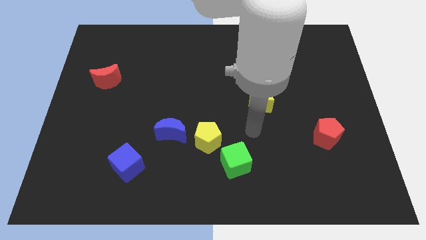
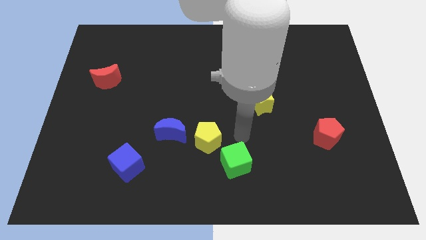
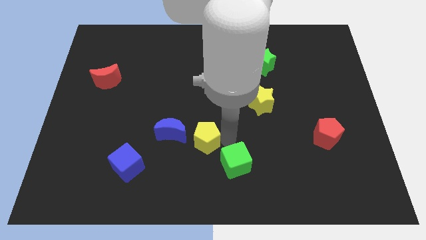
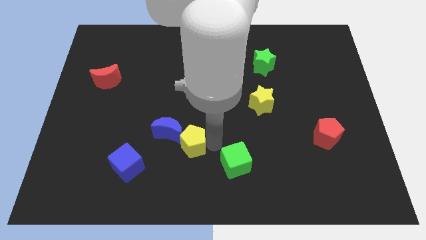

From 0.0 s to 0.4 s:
move the green cube away from the yellow pentagon

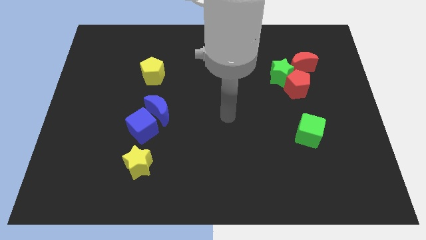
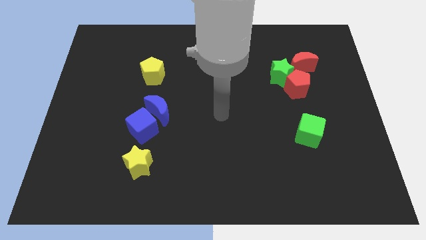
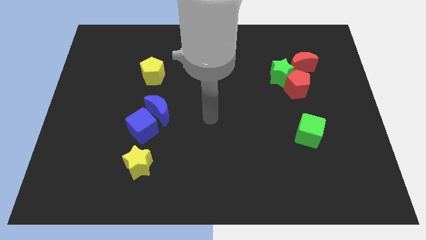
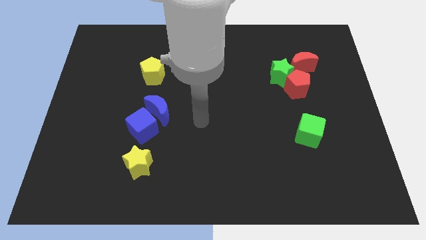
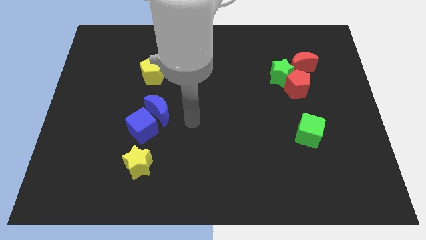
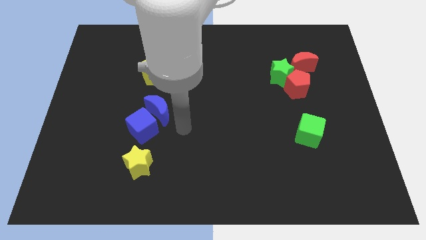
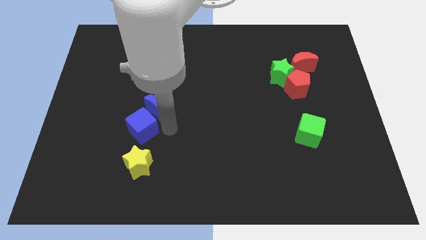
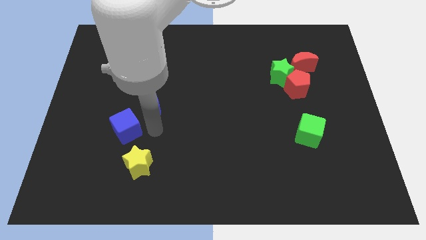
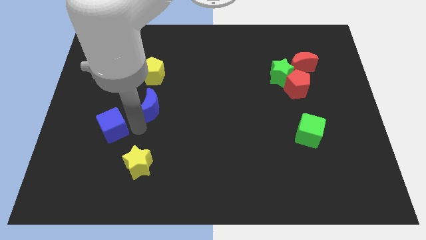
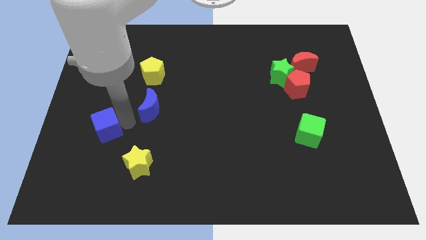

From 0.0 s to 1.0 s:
pull the blue moon apart from the blue cube

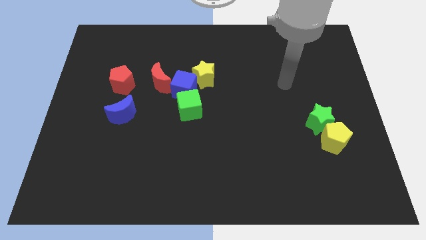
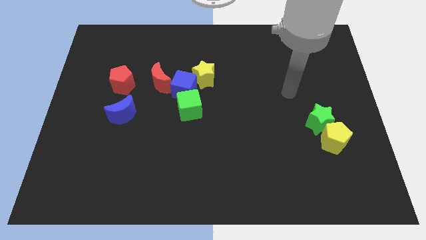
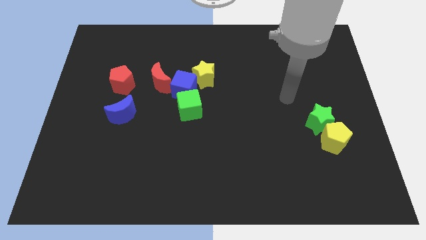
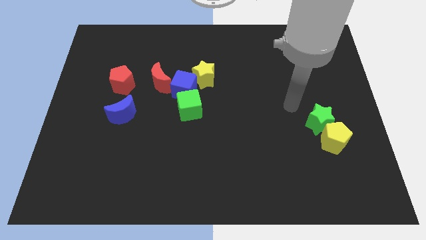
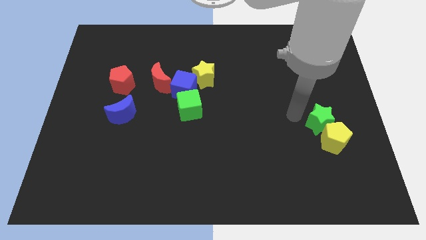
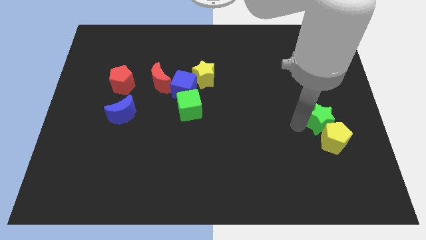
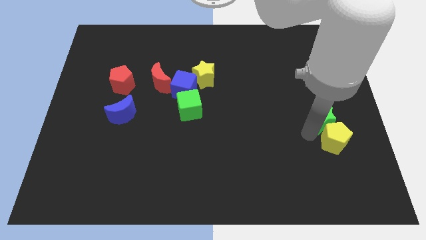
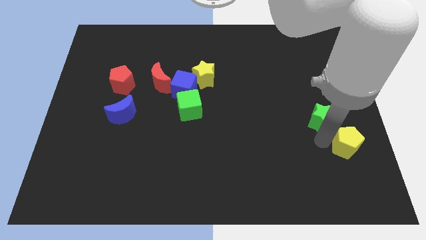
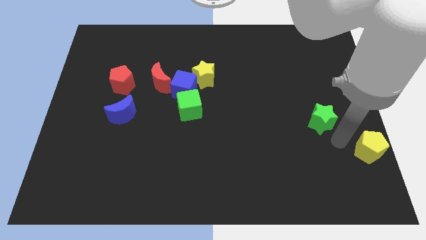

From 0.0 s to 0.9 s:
separate the green star from the yellow pentagon

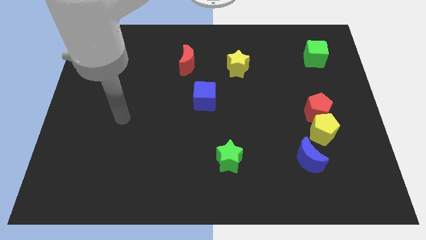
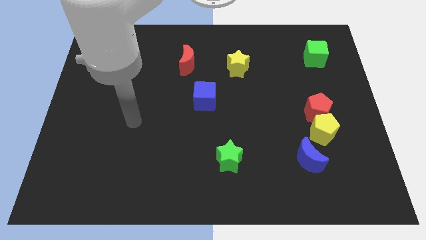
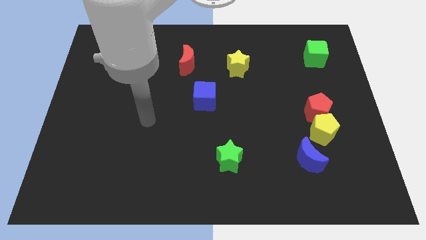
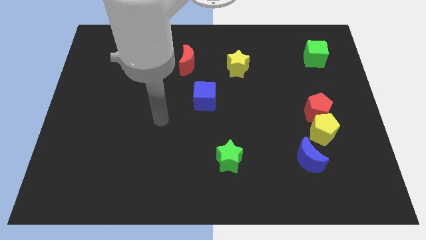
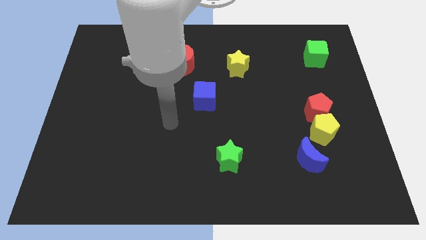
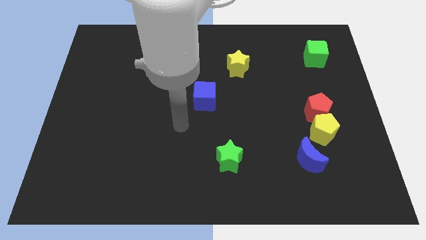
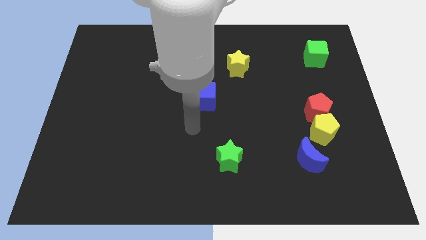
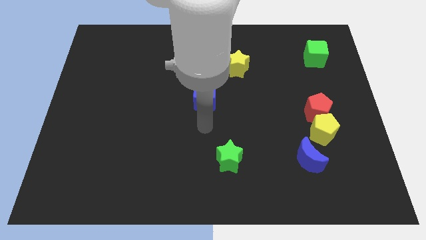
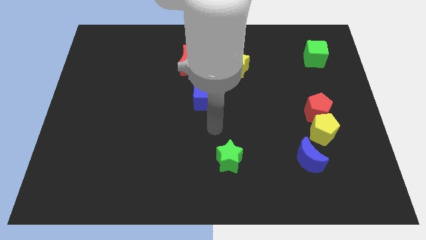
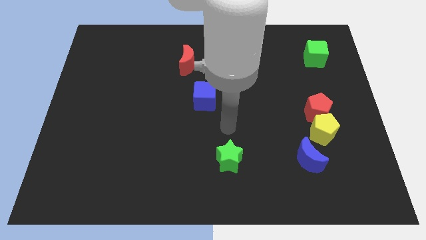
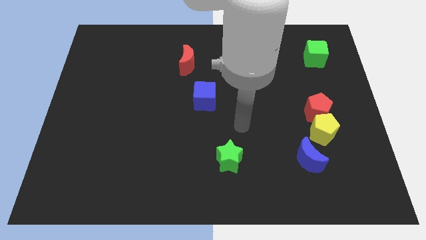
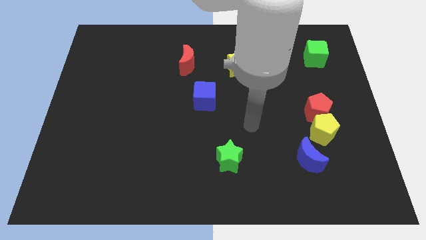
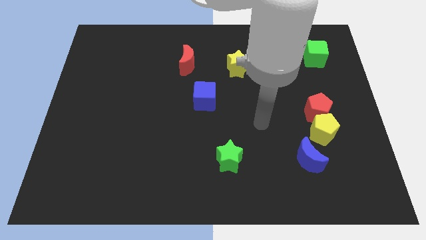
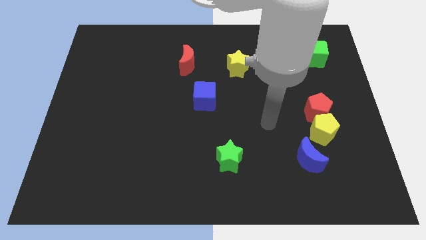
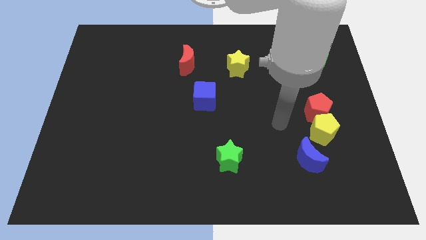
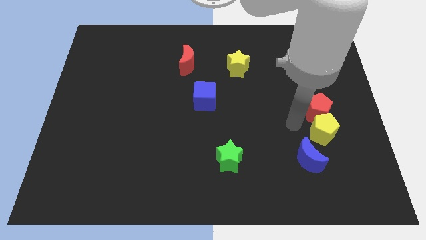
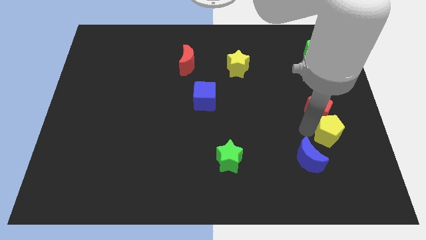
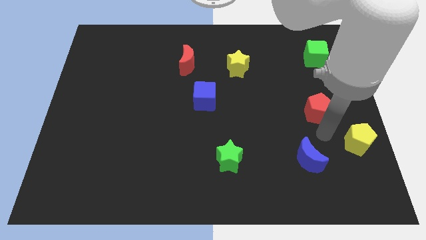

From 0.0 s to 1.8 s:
pull the red pentagon apart from the yellow pentagon

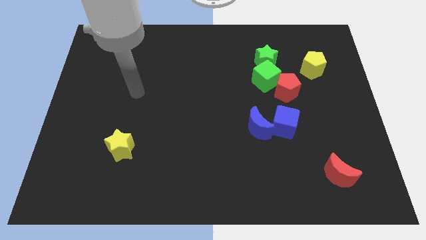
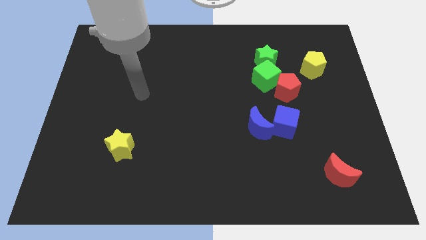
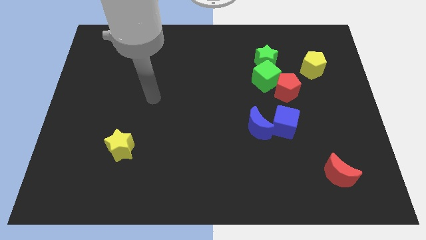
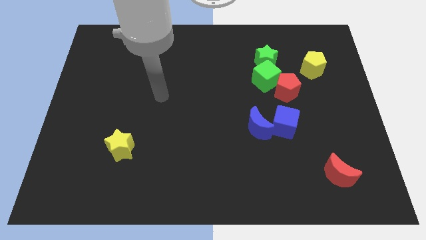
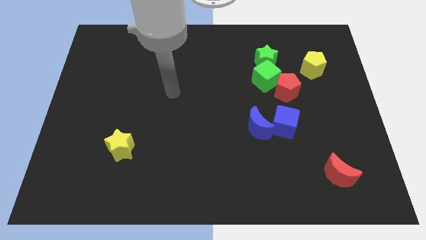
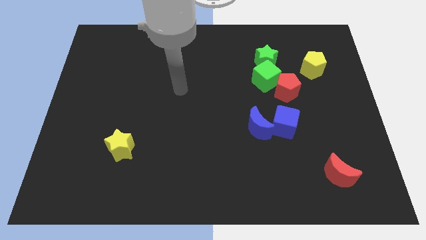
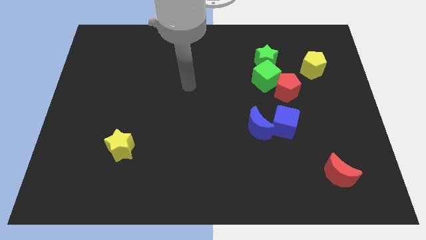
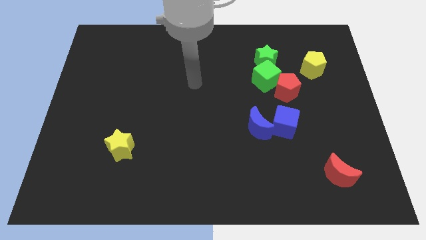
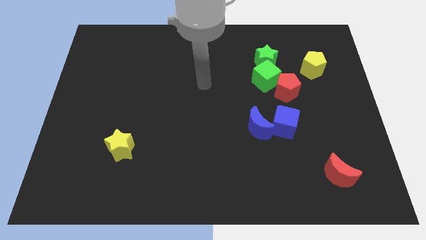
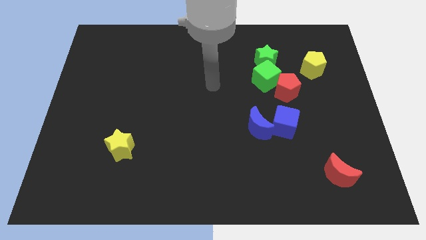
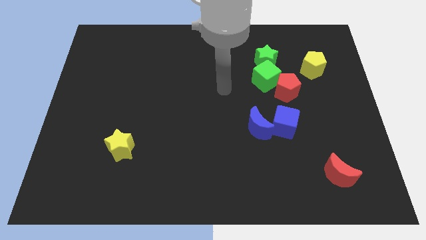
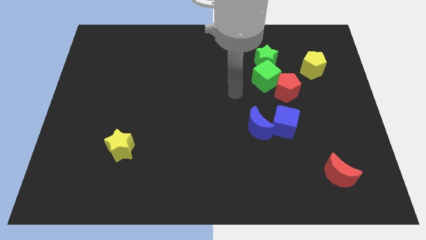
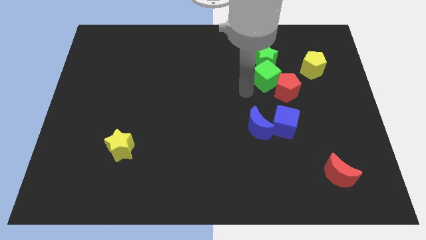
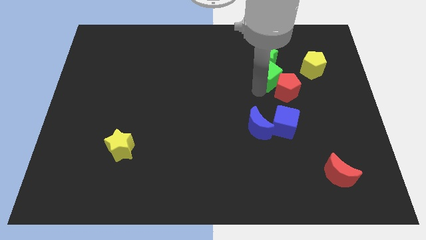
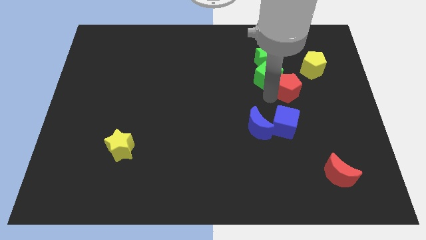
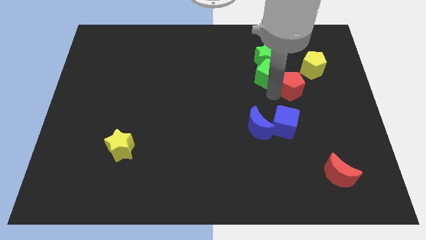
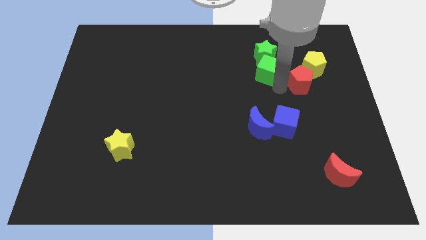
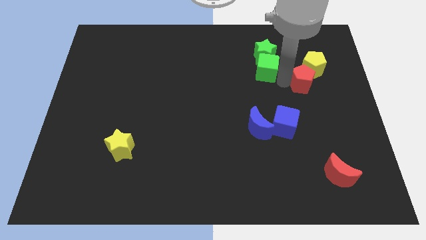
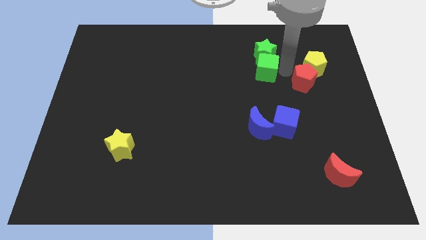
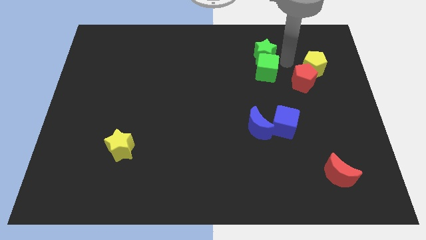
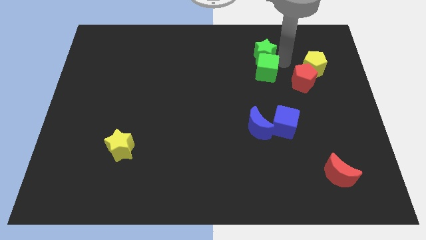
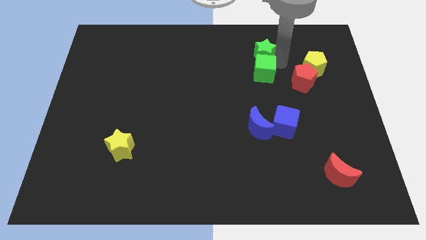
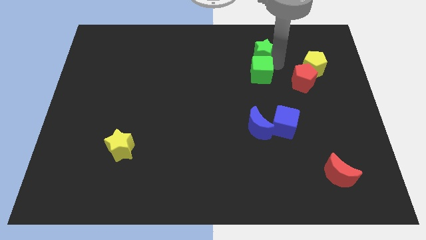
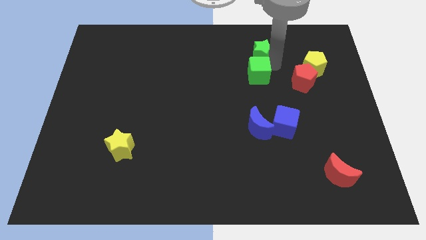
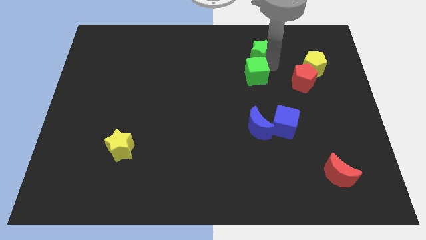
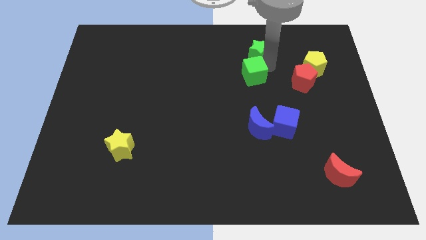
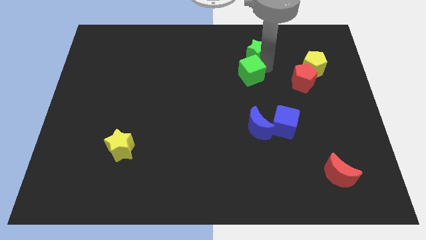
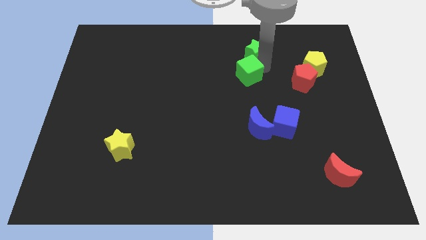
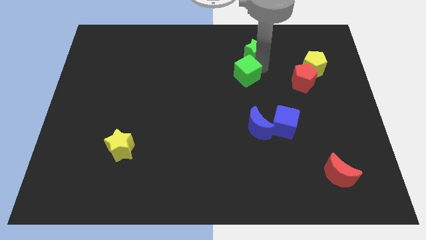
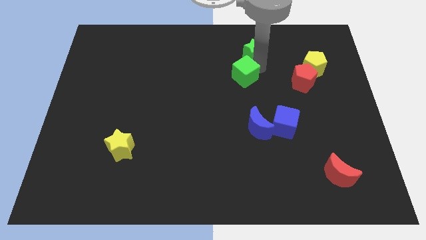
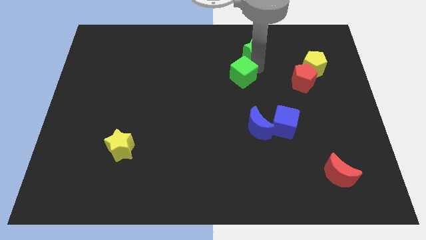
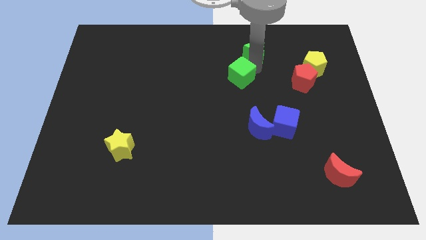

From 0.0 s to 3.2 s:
separate the green cube from the red pentagon and green star

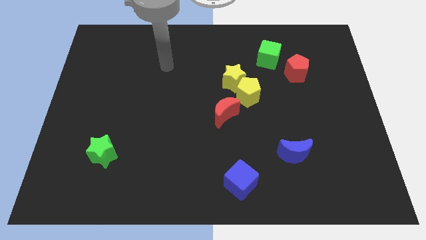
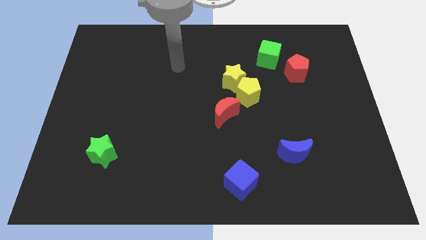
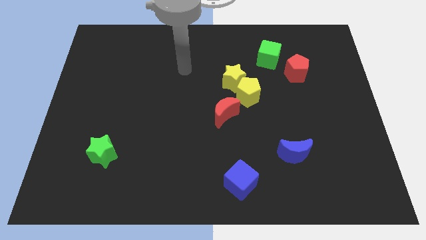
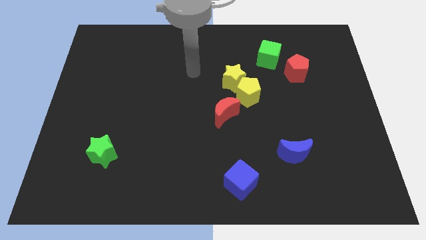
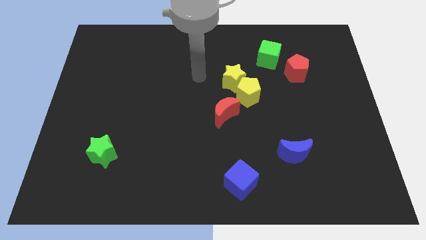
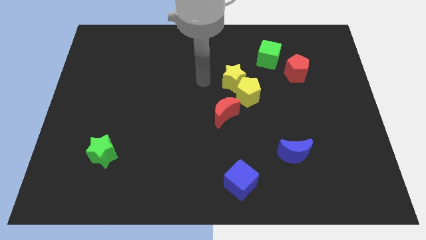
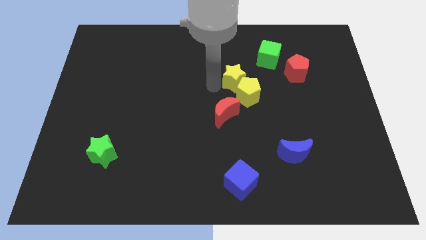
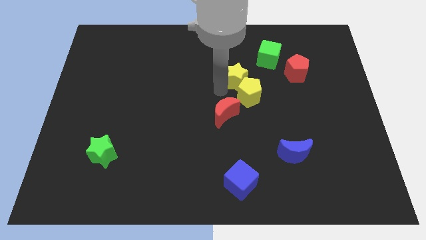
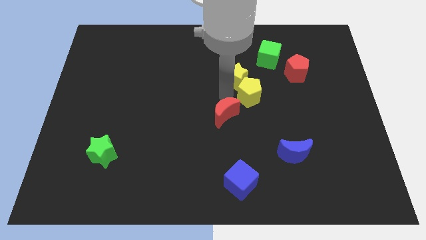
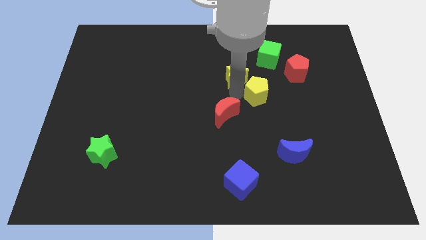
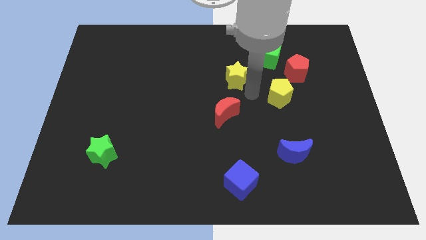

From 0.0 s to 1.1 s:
pull the yellow star apart from the yellow pentagon

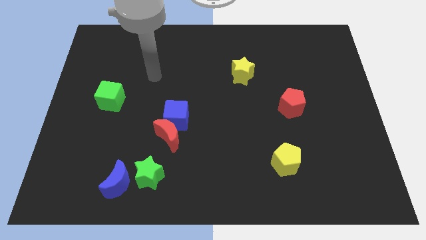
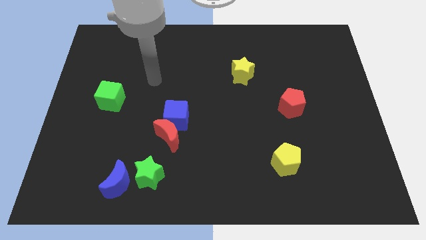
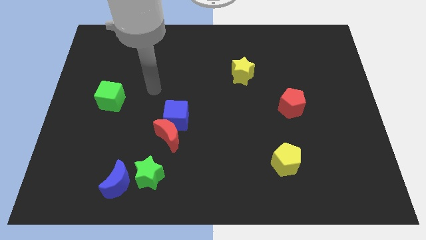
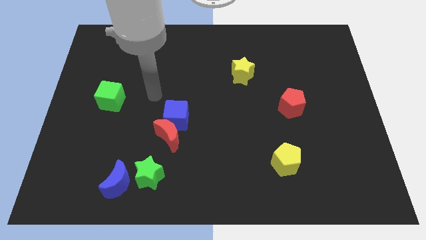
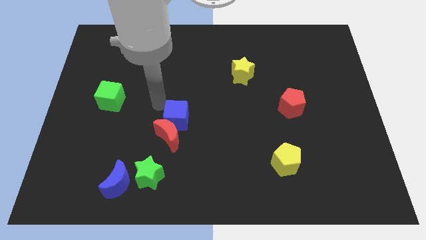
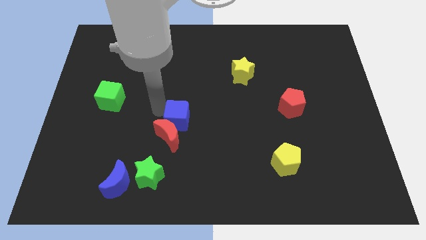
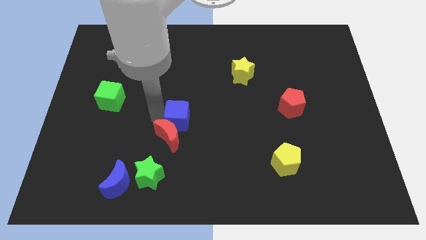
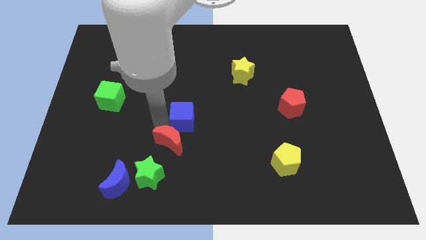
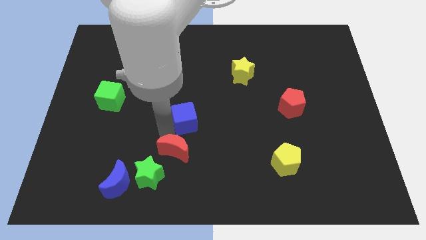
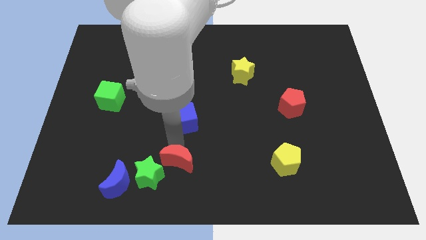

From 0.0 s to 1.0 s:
separate the blue cube from the red moon

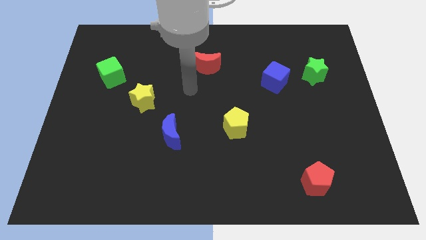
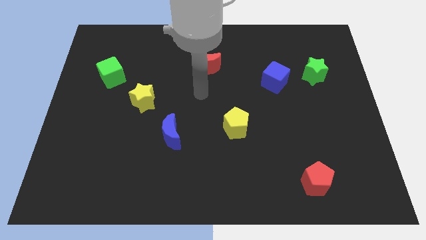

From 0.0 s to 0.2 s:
pull the blue cube apart from the green star
